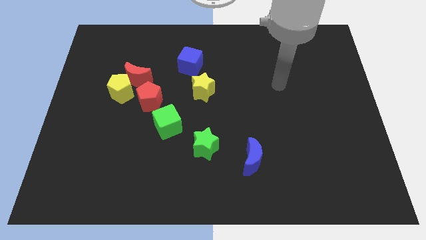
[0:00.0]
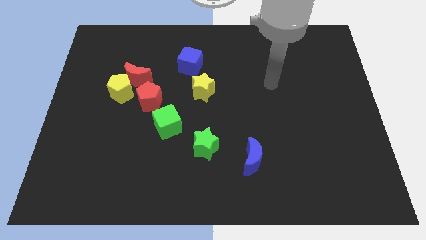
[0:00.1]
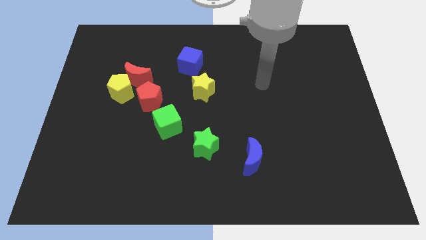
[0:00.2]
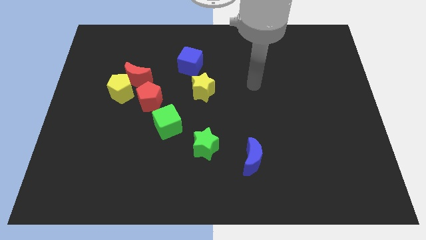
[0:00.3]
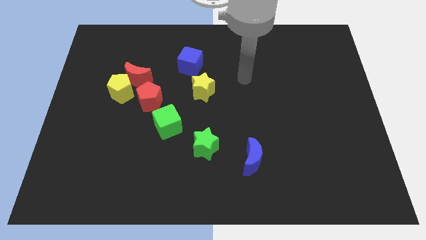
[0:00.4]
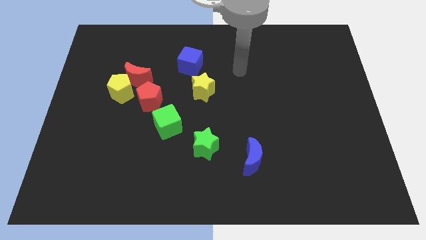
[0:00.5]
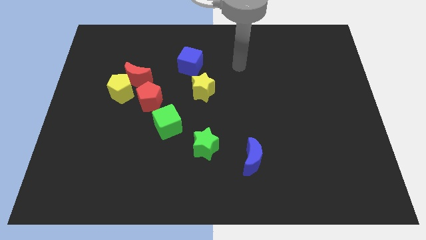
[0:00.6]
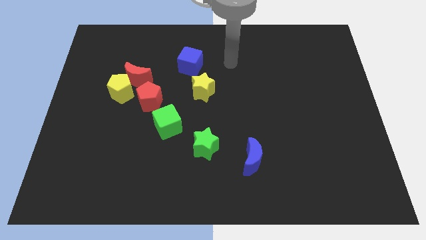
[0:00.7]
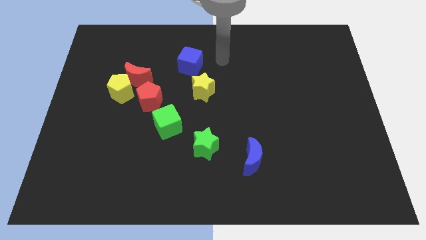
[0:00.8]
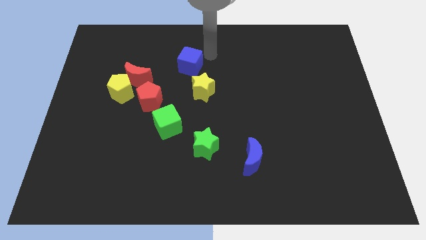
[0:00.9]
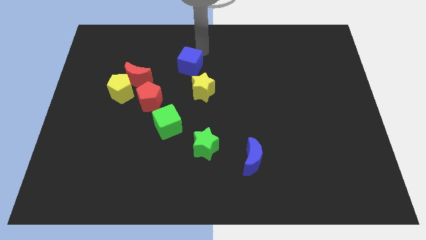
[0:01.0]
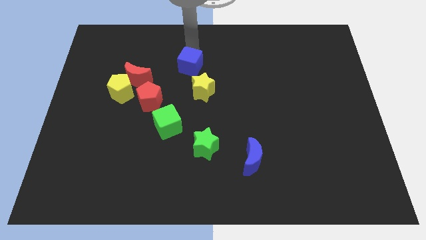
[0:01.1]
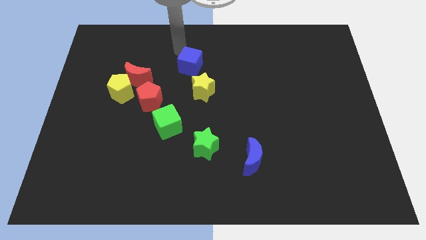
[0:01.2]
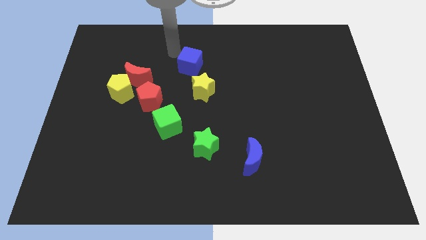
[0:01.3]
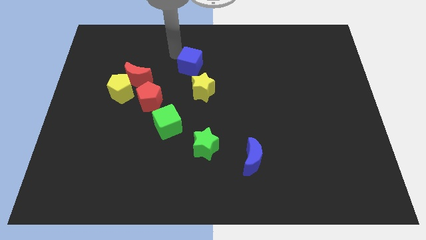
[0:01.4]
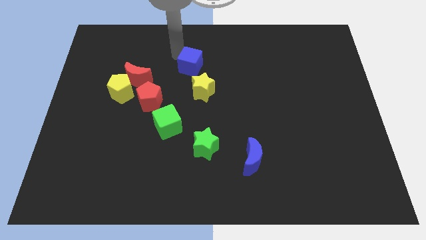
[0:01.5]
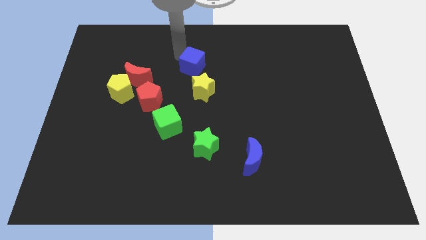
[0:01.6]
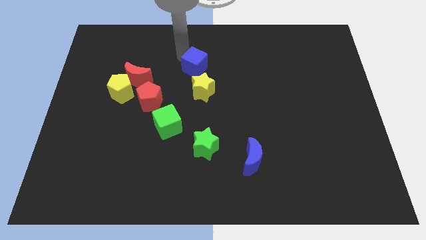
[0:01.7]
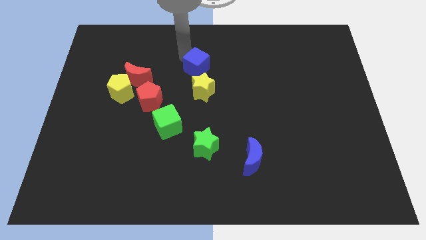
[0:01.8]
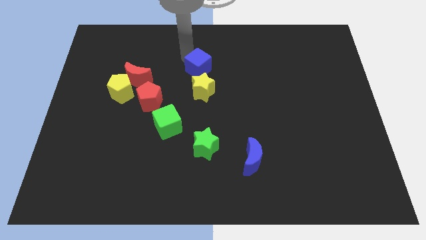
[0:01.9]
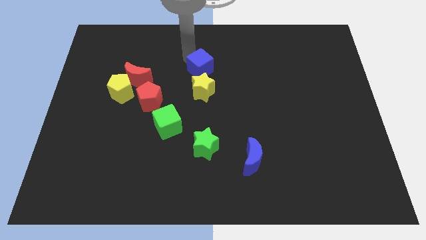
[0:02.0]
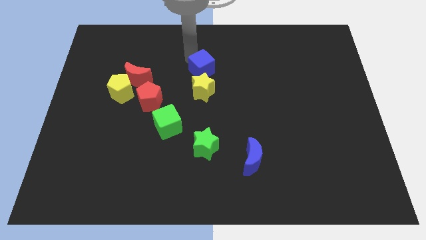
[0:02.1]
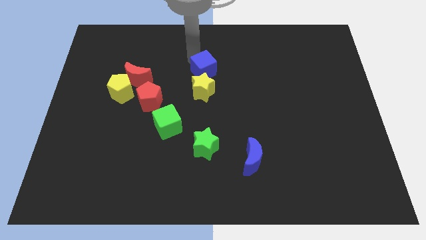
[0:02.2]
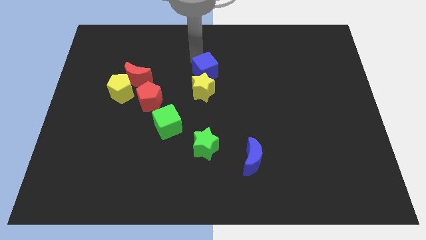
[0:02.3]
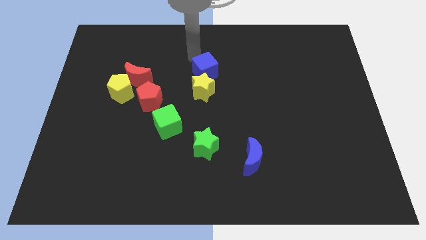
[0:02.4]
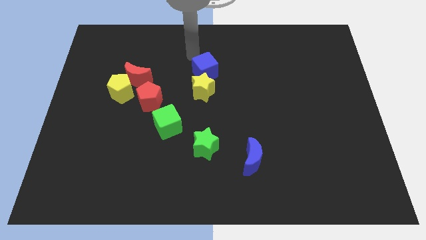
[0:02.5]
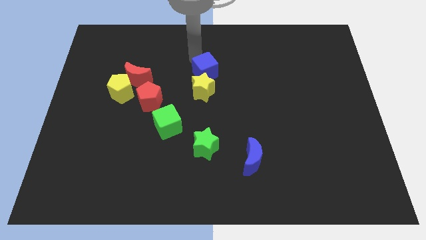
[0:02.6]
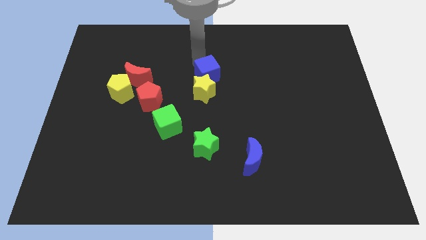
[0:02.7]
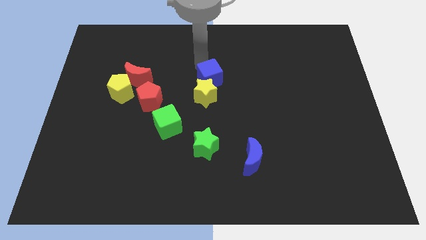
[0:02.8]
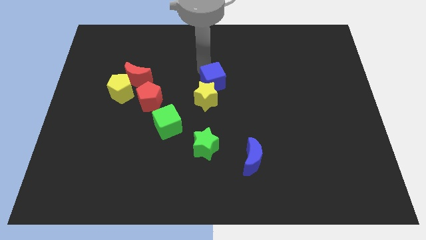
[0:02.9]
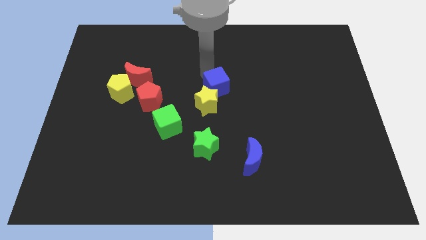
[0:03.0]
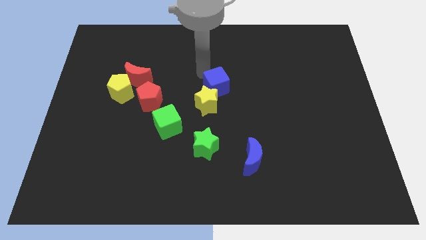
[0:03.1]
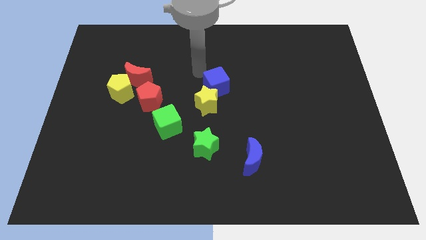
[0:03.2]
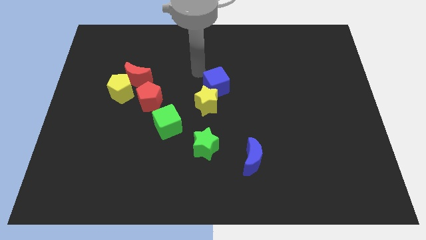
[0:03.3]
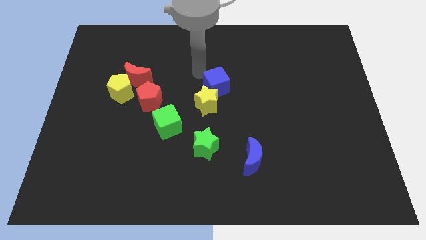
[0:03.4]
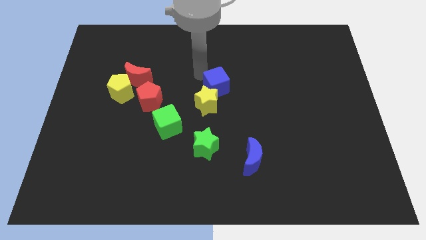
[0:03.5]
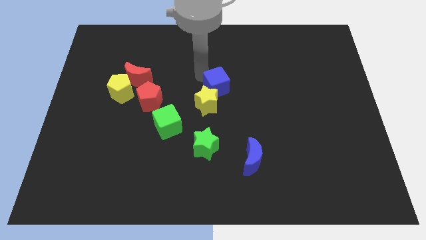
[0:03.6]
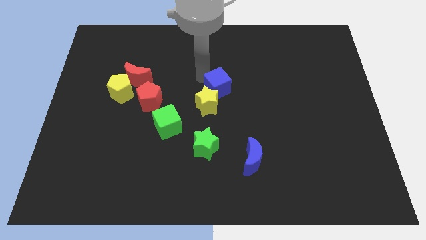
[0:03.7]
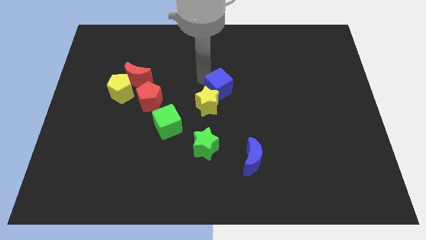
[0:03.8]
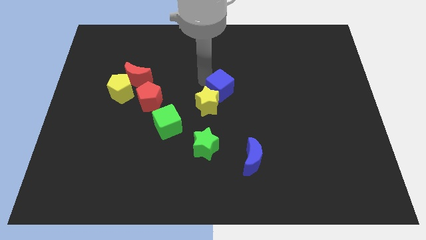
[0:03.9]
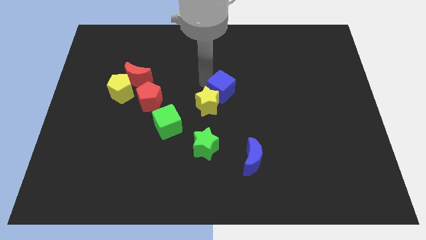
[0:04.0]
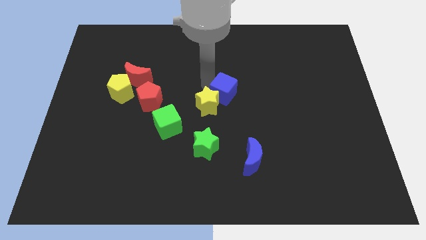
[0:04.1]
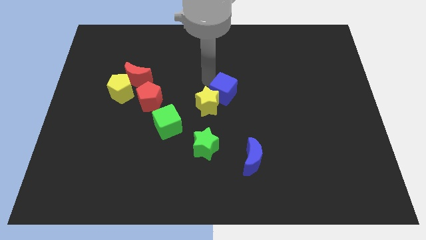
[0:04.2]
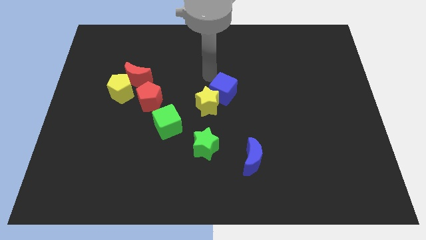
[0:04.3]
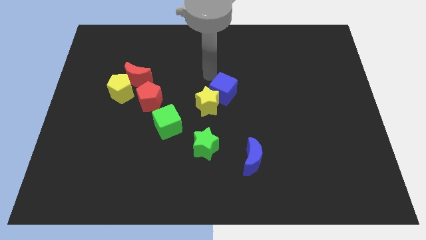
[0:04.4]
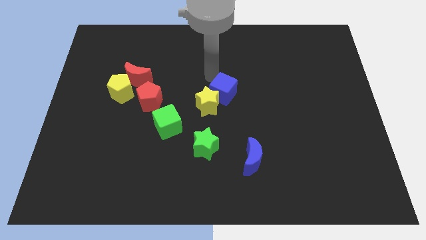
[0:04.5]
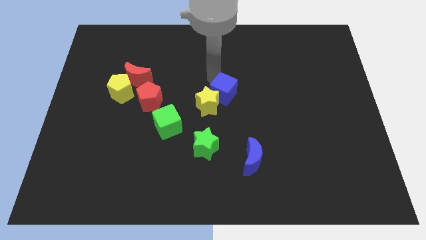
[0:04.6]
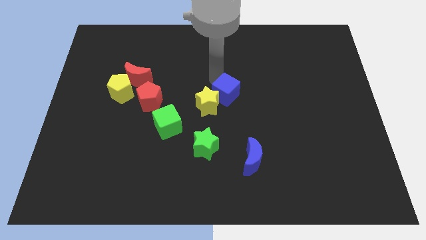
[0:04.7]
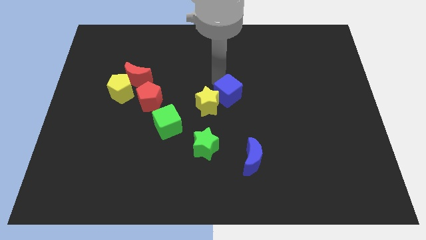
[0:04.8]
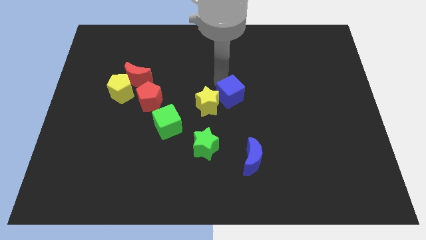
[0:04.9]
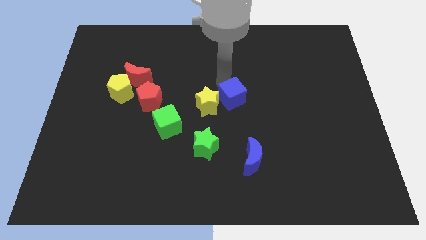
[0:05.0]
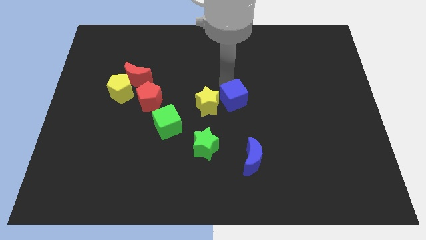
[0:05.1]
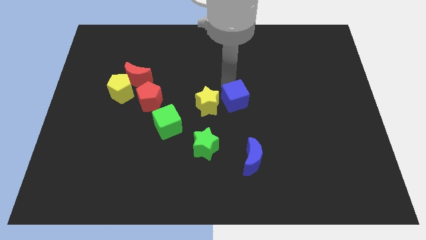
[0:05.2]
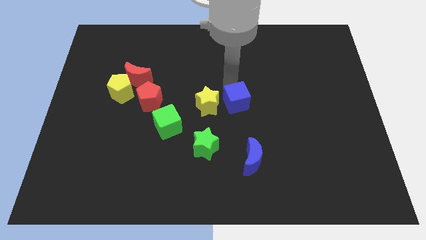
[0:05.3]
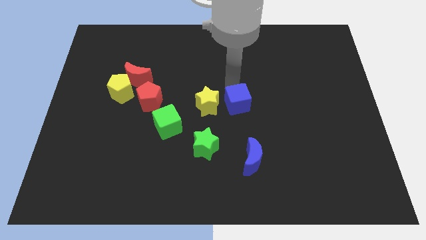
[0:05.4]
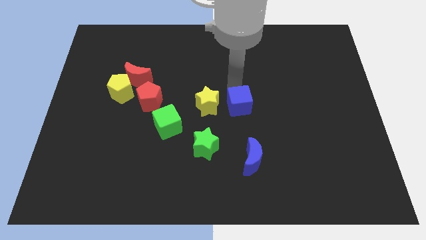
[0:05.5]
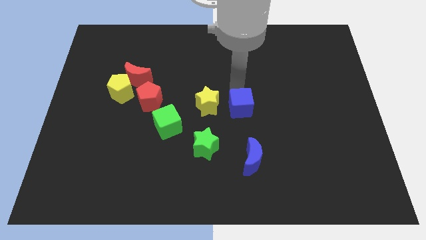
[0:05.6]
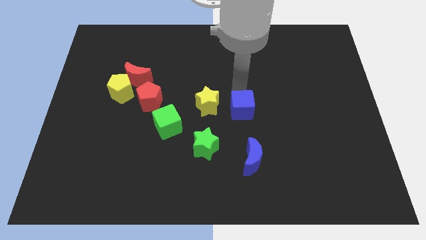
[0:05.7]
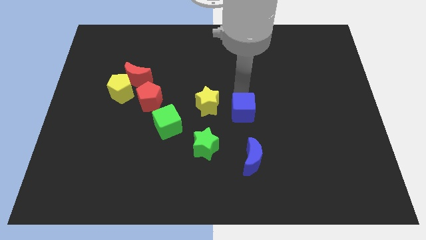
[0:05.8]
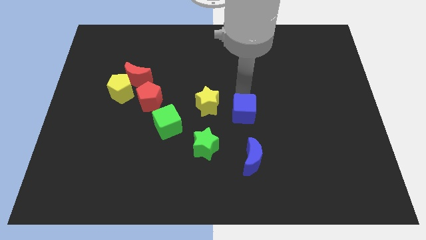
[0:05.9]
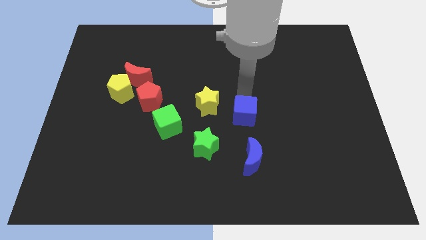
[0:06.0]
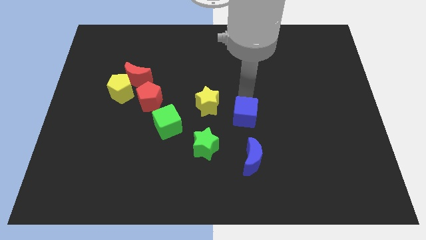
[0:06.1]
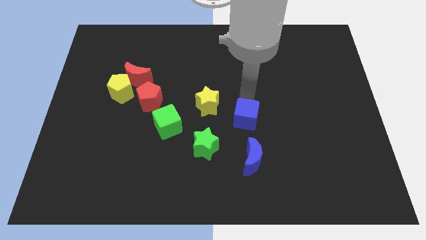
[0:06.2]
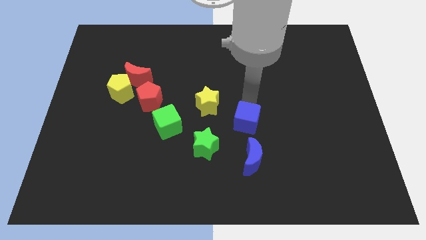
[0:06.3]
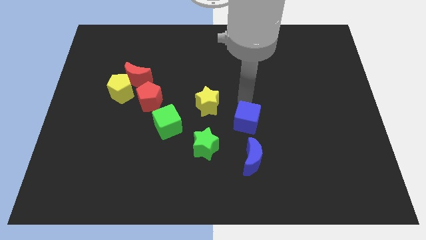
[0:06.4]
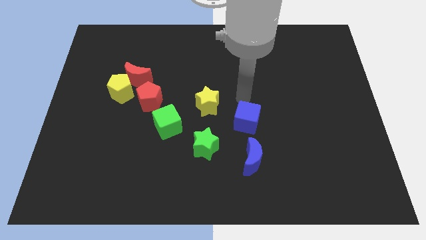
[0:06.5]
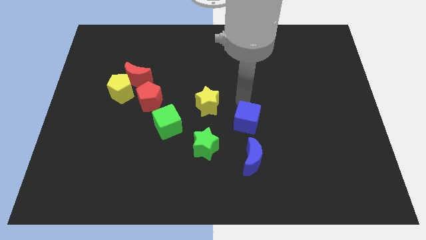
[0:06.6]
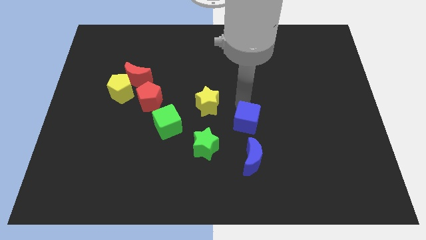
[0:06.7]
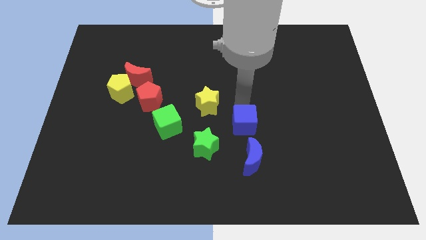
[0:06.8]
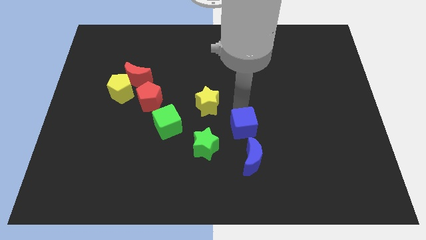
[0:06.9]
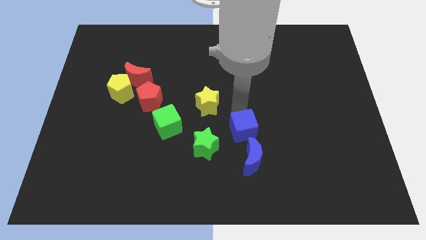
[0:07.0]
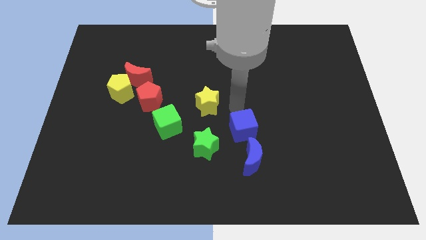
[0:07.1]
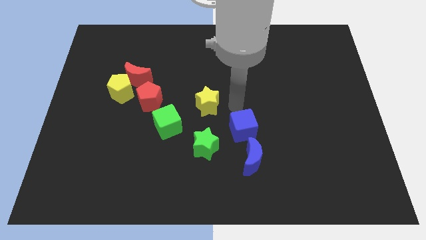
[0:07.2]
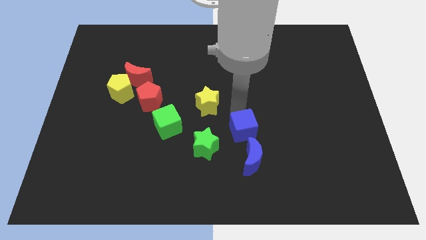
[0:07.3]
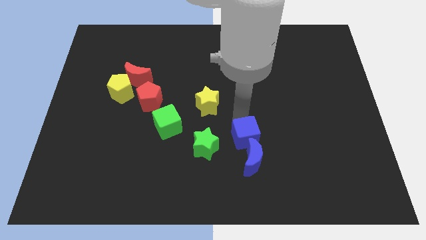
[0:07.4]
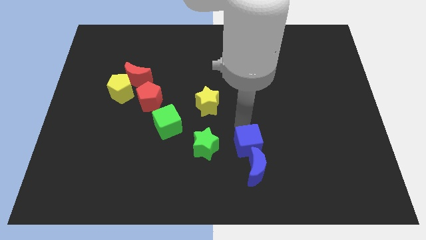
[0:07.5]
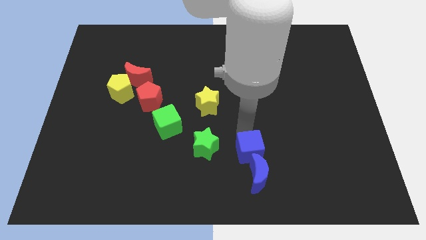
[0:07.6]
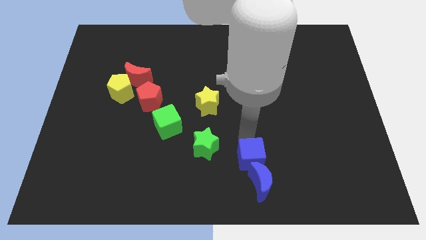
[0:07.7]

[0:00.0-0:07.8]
put the blue cube next to the blue moon
